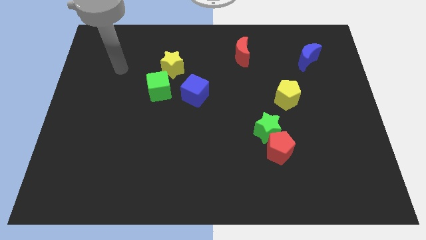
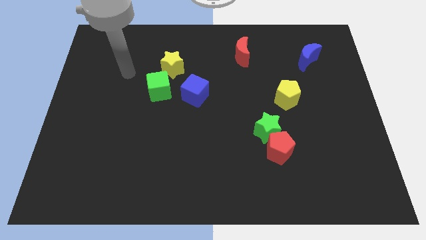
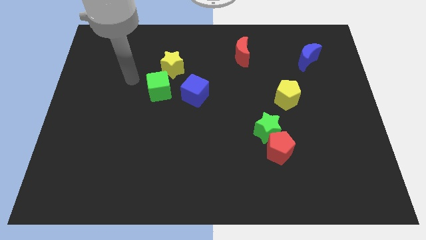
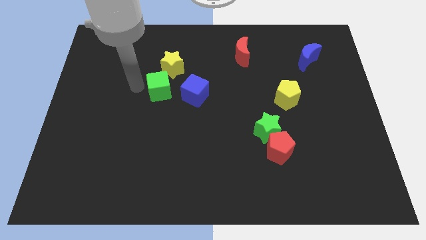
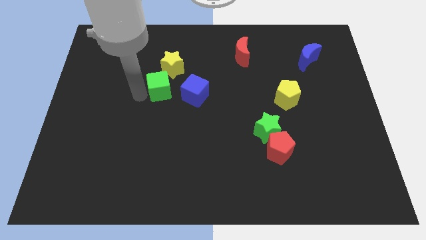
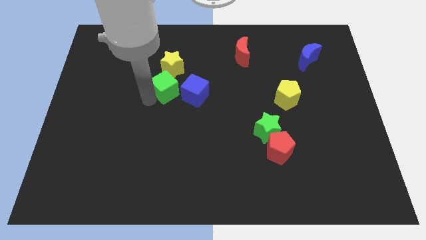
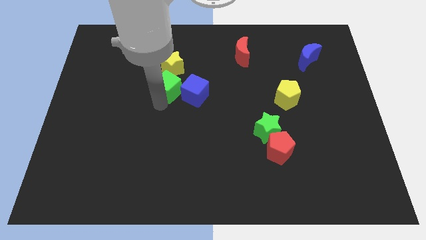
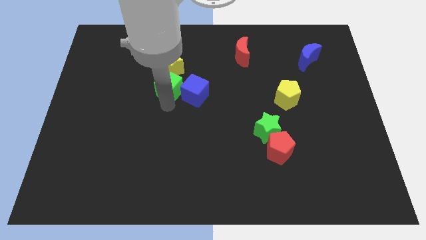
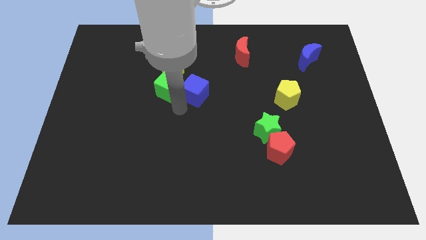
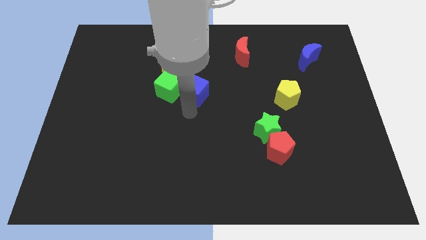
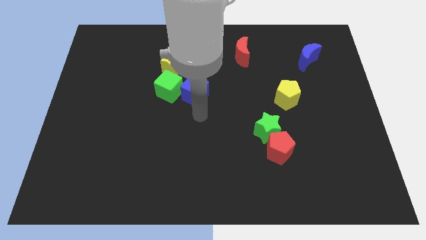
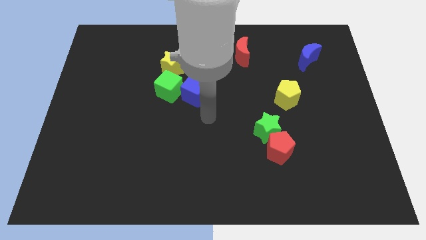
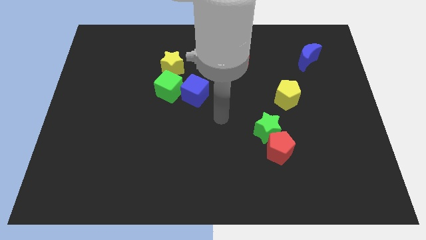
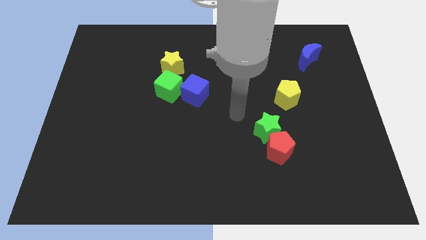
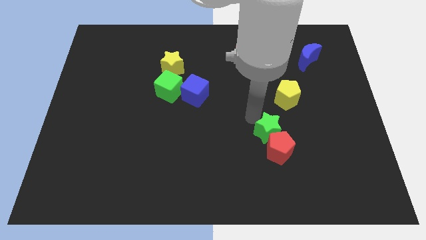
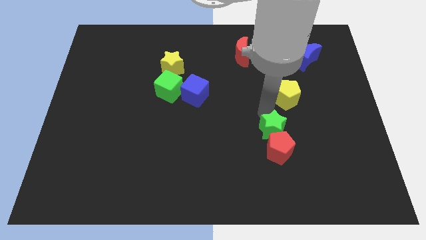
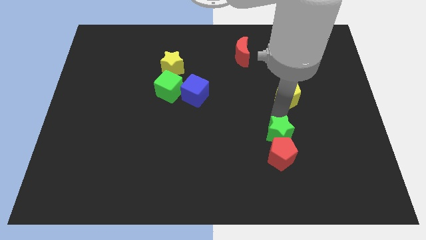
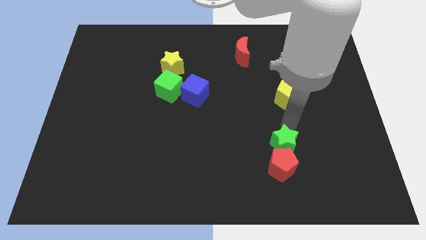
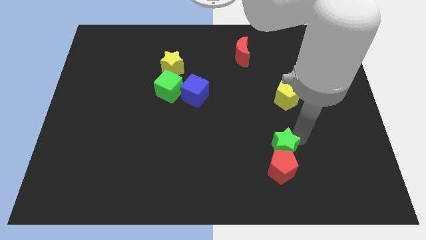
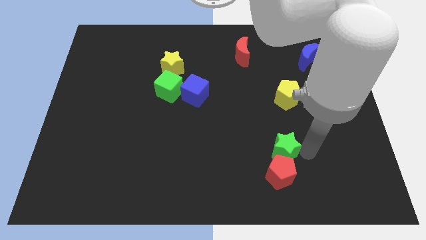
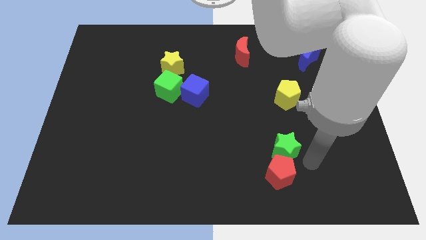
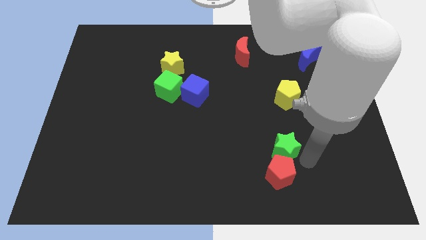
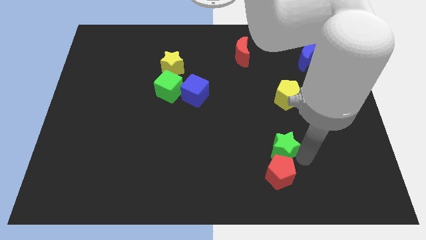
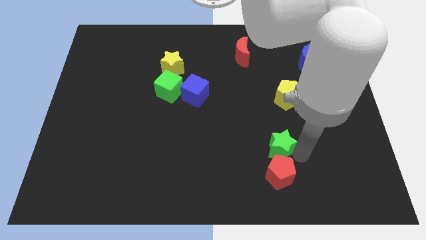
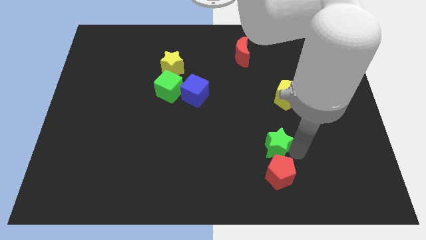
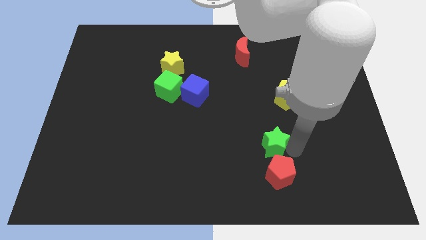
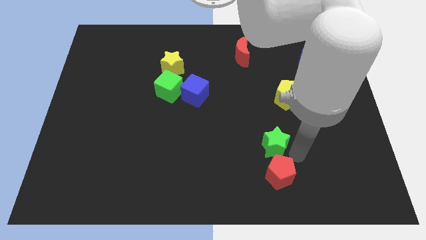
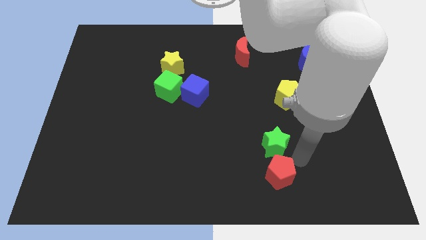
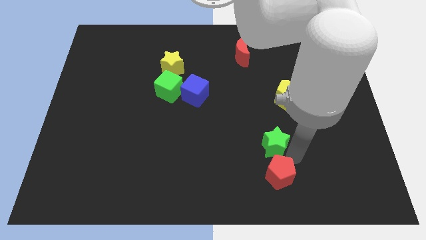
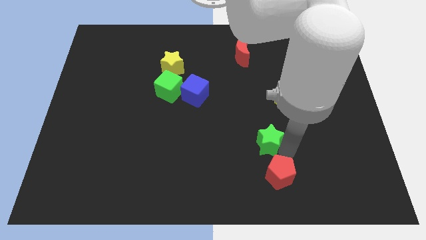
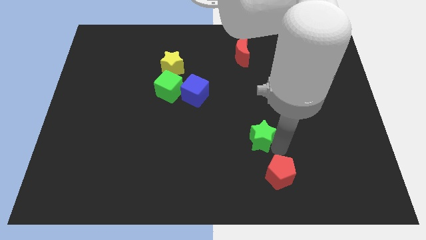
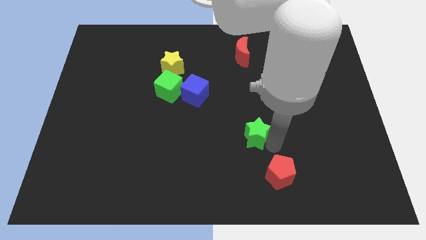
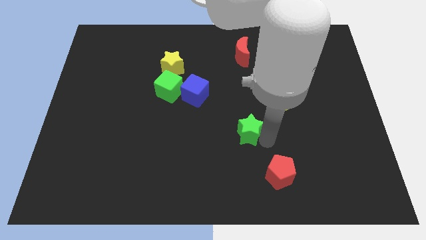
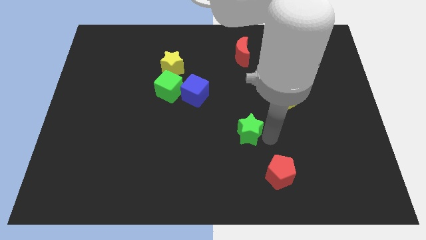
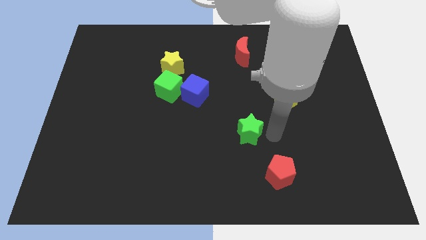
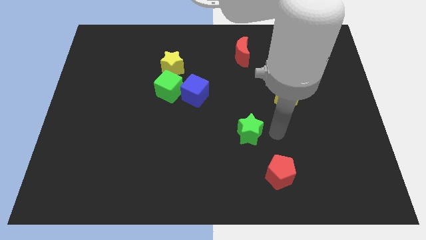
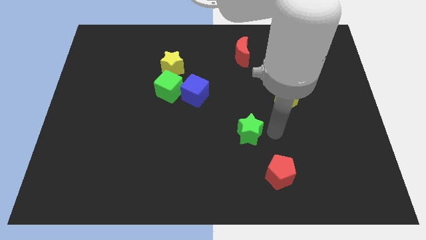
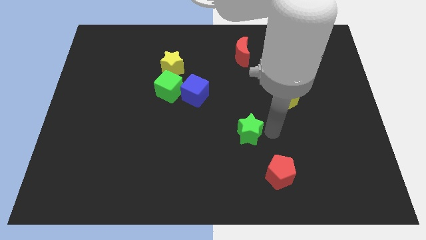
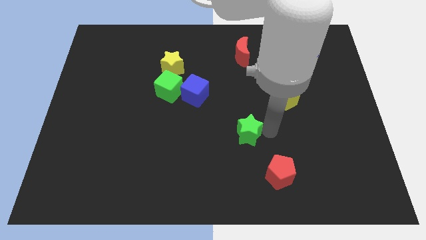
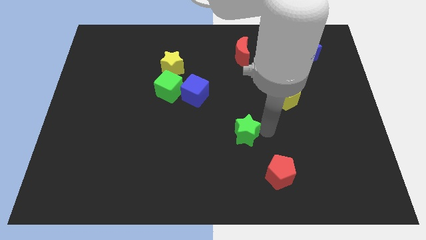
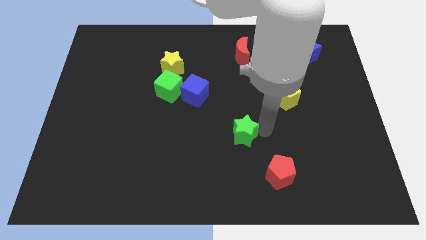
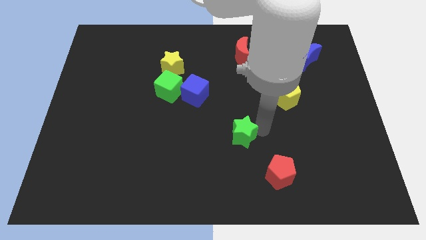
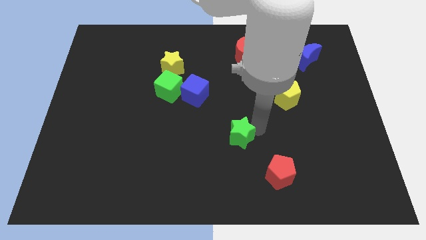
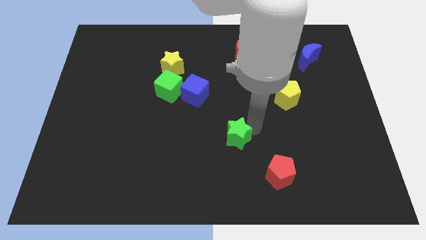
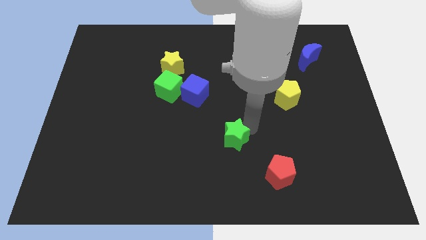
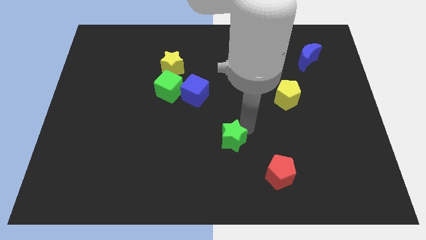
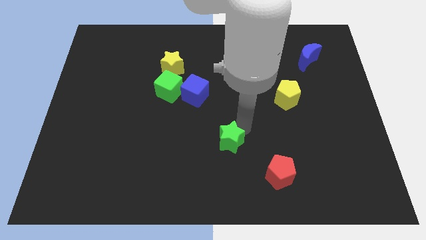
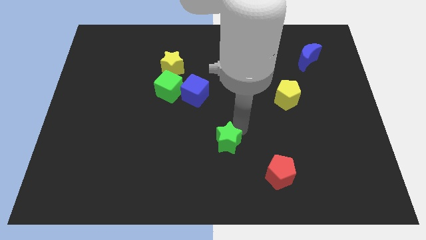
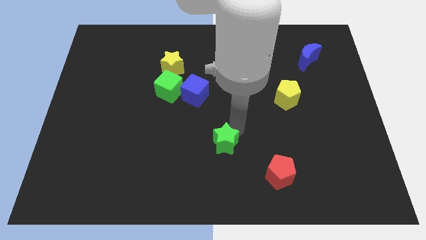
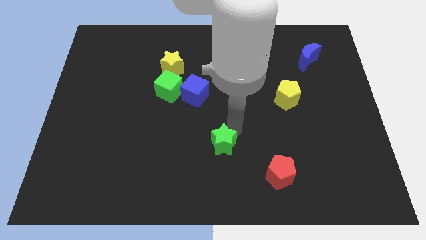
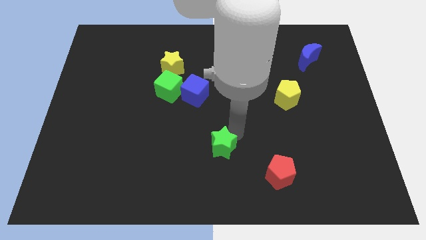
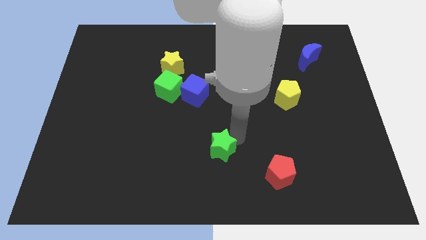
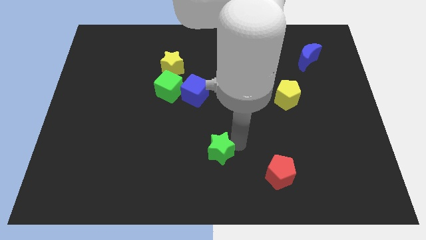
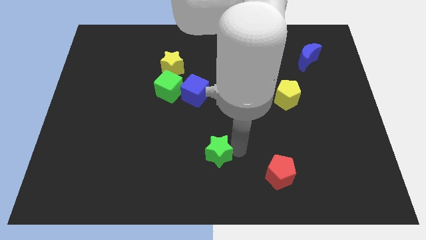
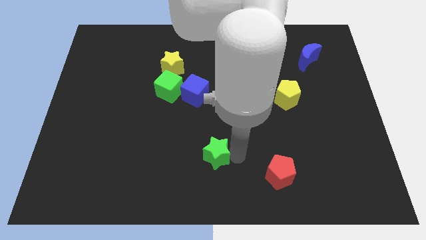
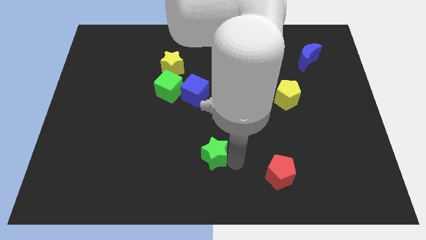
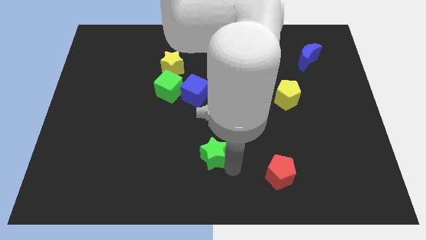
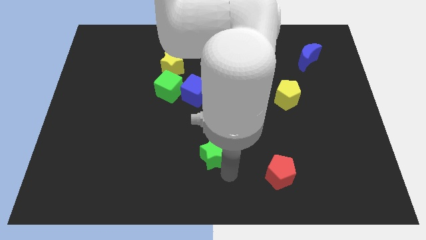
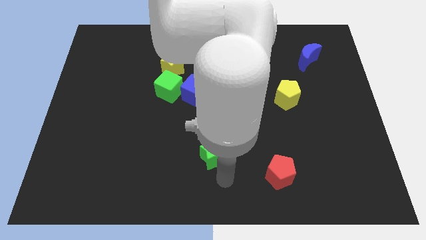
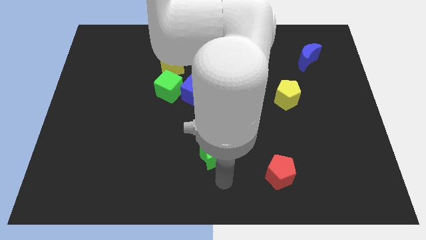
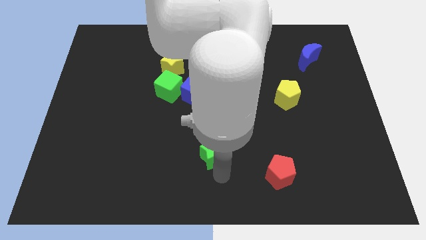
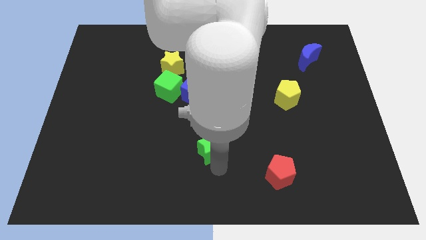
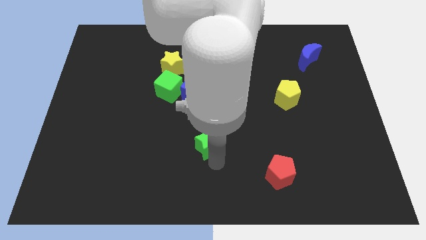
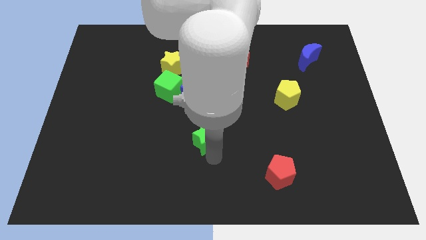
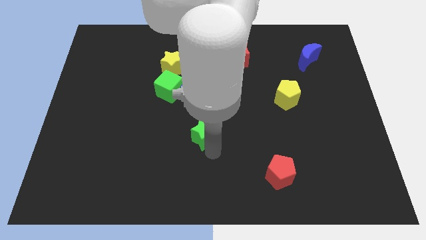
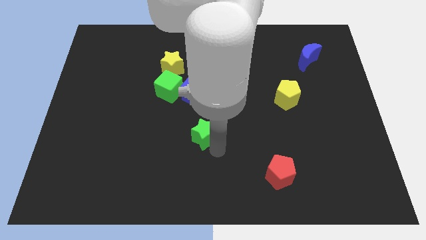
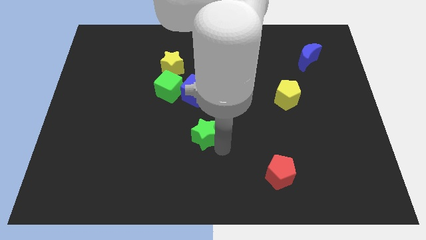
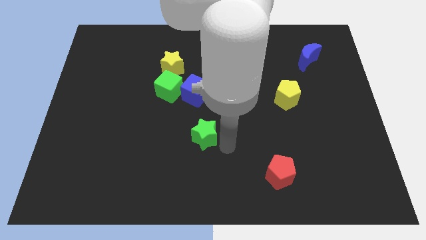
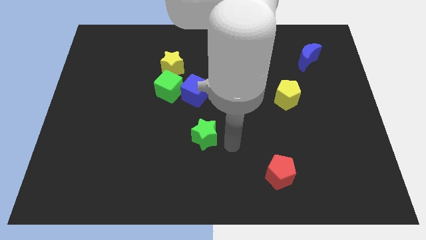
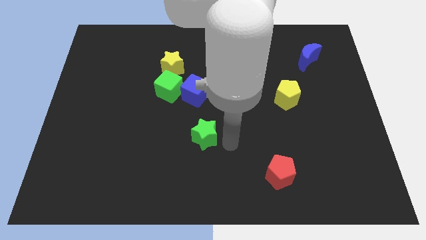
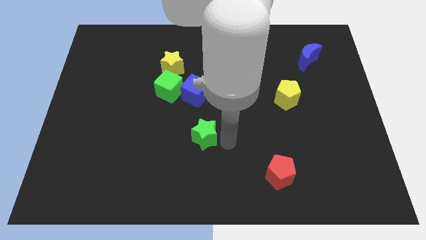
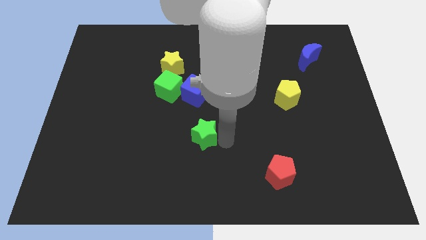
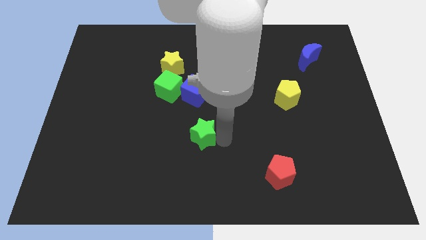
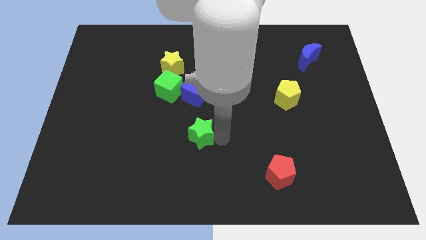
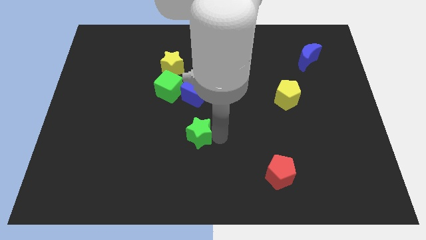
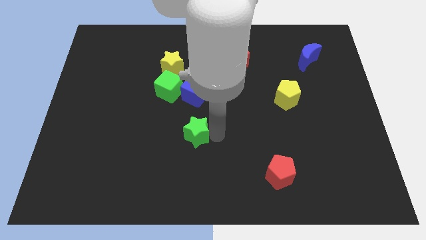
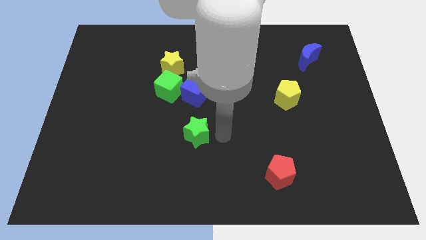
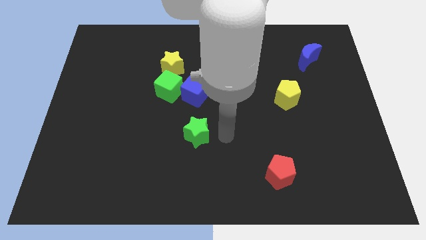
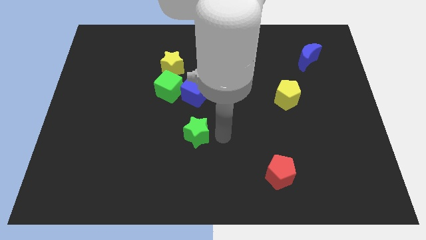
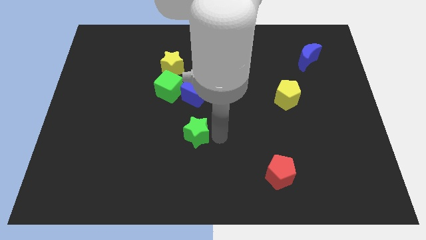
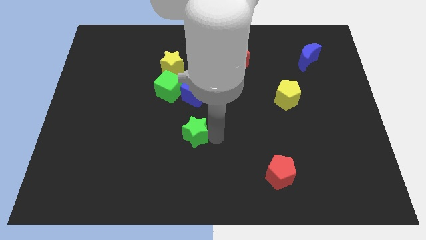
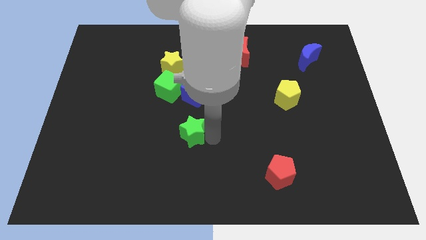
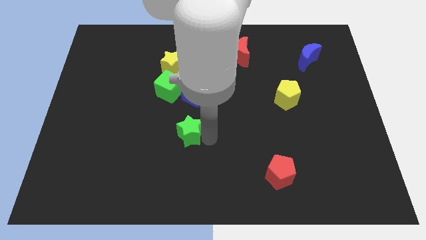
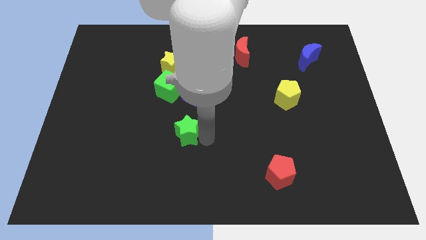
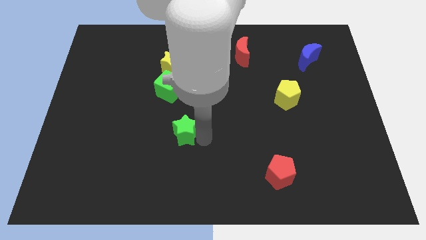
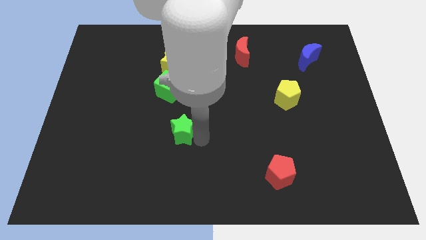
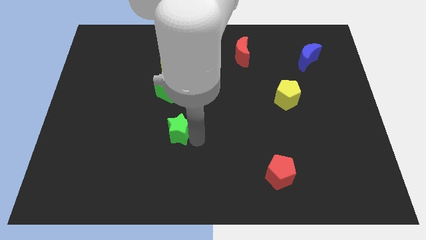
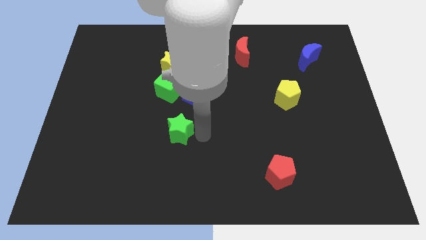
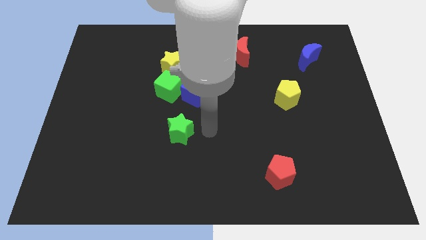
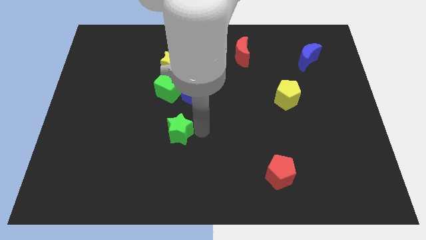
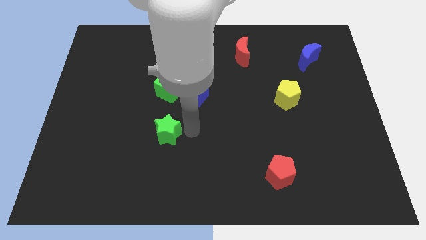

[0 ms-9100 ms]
slide the green star left
